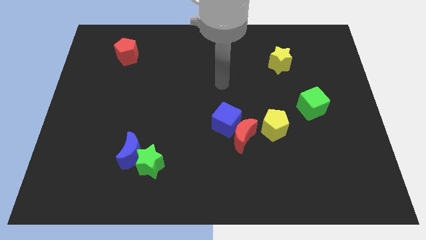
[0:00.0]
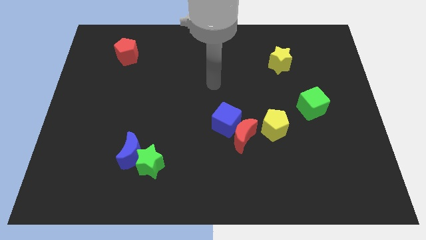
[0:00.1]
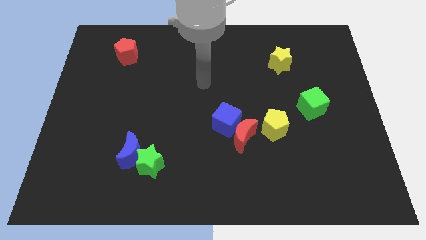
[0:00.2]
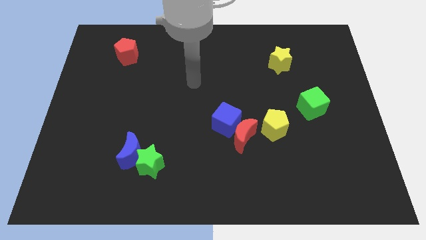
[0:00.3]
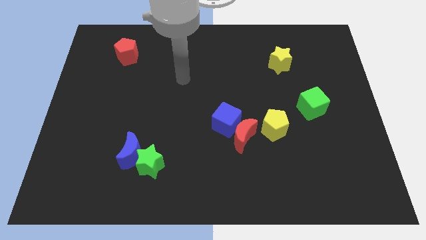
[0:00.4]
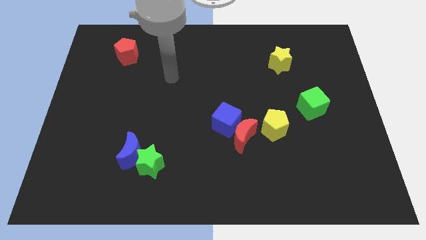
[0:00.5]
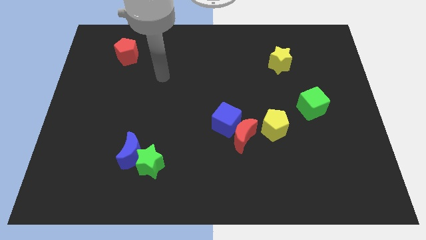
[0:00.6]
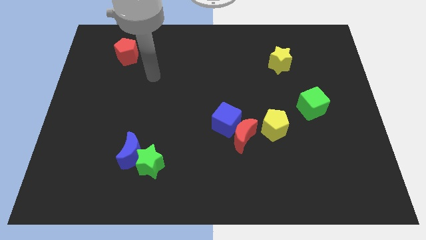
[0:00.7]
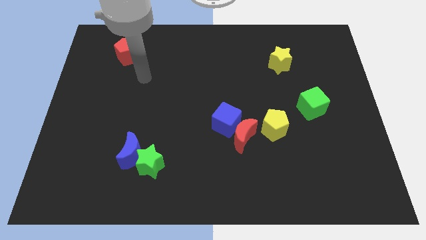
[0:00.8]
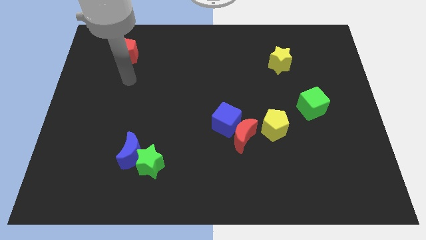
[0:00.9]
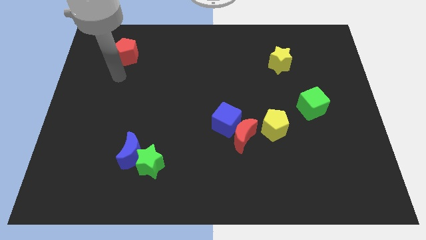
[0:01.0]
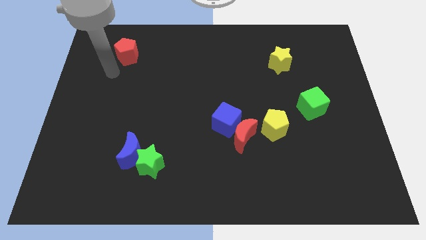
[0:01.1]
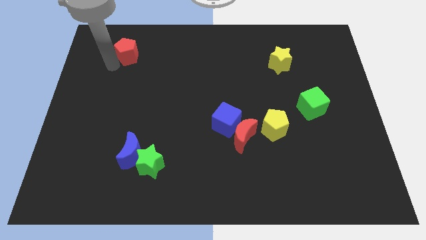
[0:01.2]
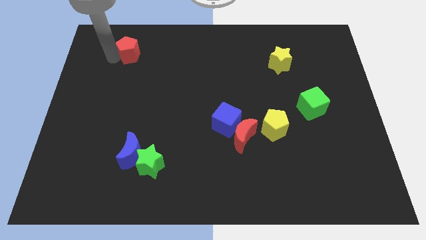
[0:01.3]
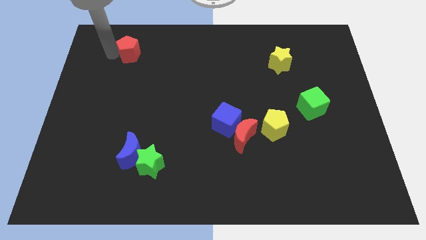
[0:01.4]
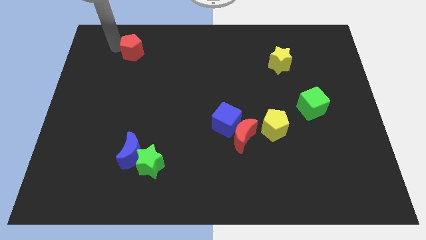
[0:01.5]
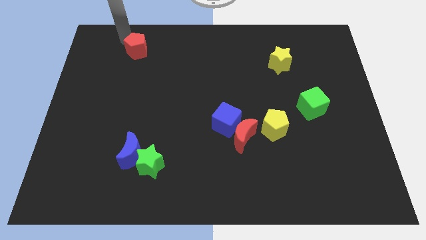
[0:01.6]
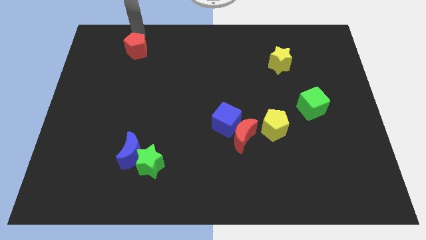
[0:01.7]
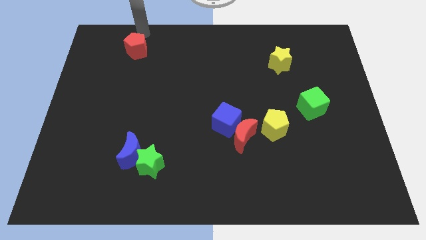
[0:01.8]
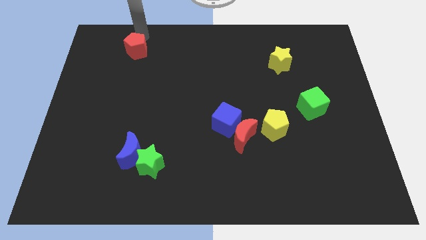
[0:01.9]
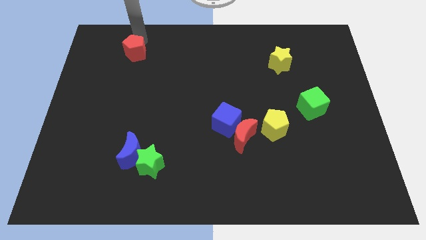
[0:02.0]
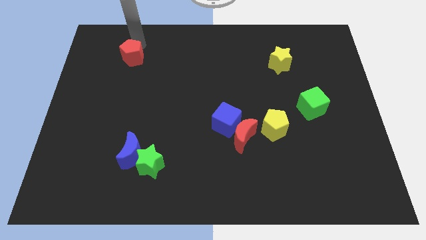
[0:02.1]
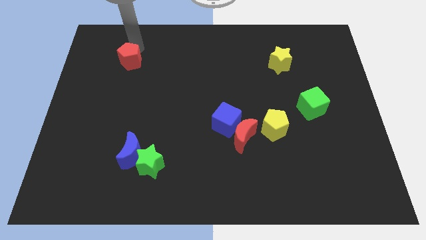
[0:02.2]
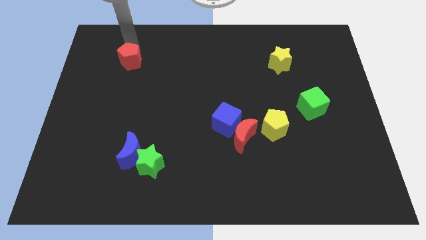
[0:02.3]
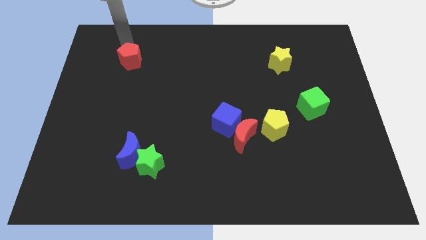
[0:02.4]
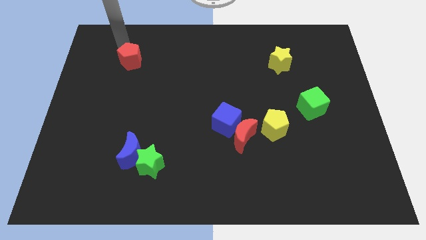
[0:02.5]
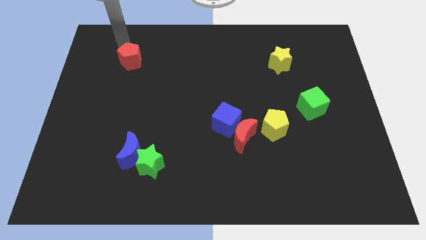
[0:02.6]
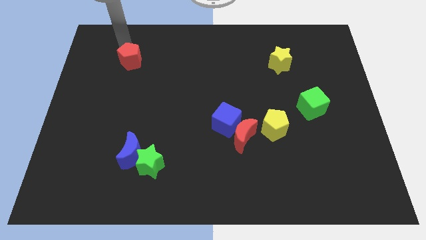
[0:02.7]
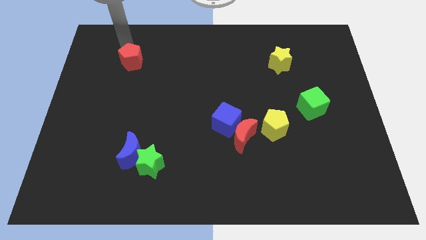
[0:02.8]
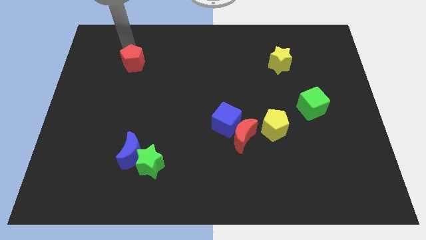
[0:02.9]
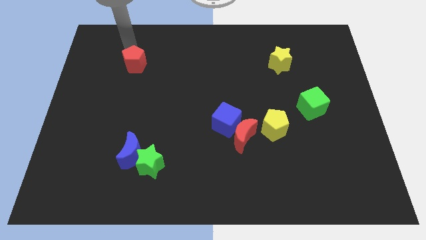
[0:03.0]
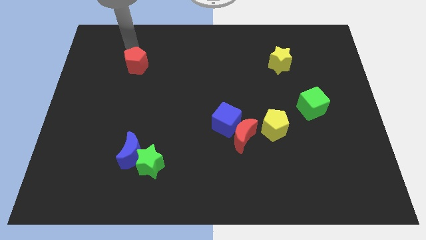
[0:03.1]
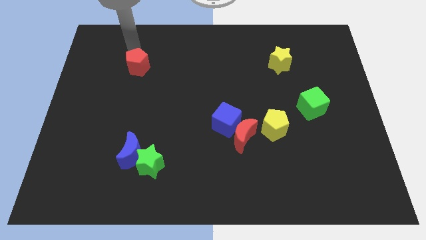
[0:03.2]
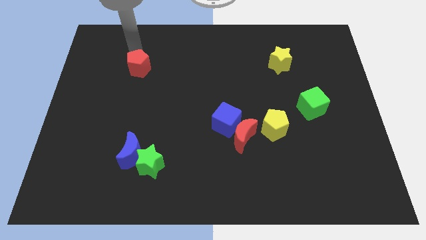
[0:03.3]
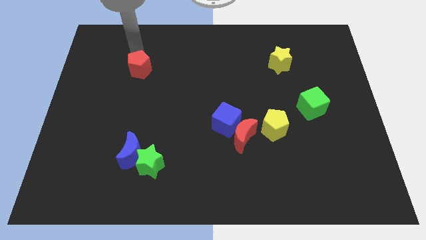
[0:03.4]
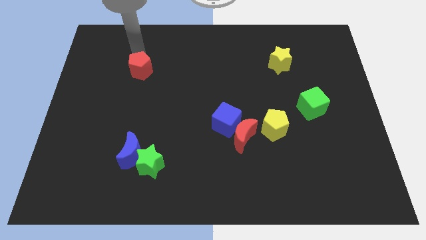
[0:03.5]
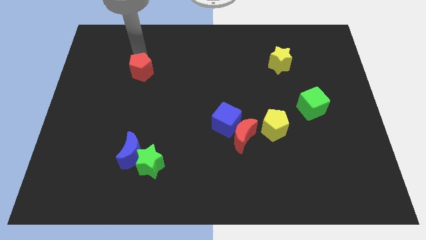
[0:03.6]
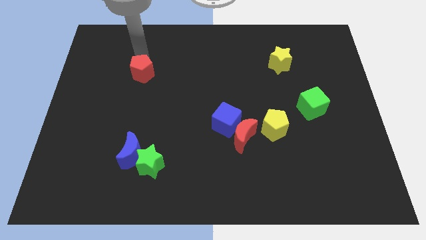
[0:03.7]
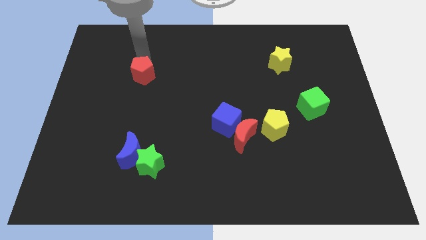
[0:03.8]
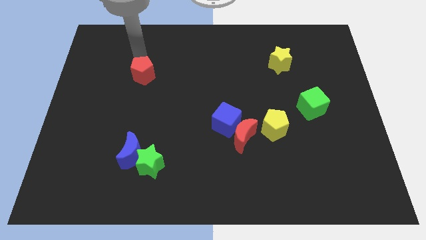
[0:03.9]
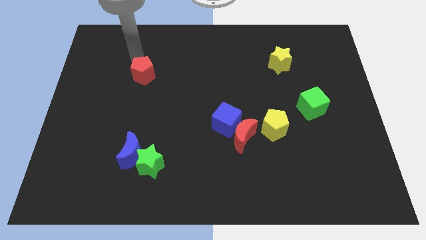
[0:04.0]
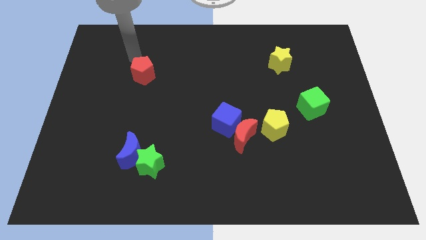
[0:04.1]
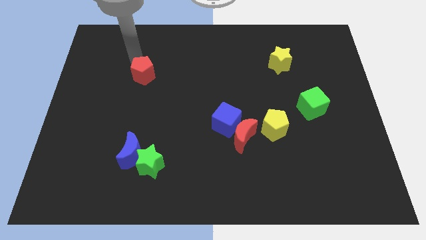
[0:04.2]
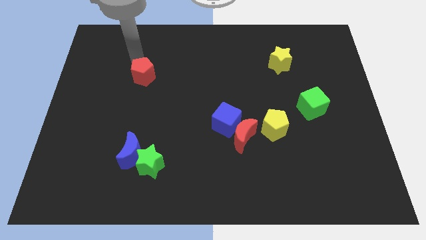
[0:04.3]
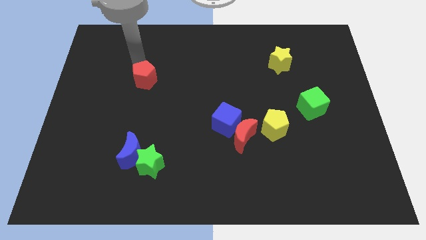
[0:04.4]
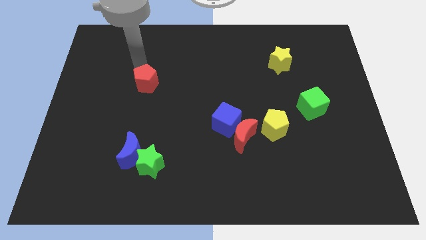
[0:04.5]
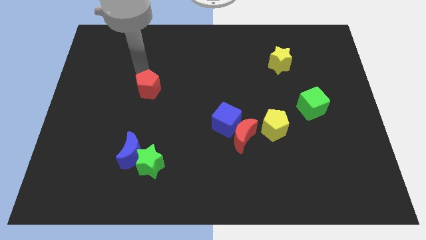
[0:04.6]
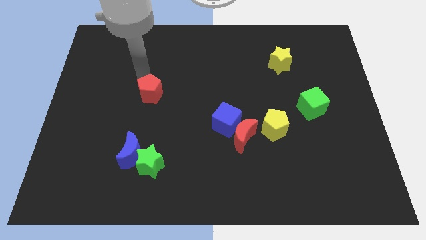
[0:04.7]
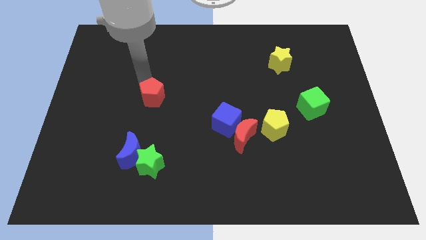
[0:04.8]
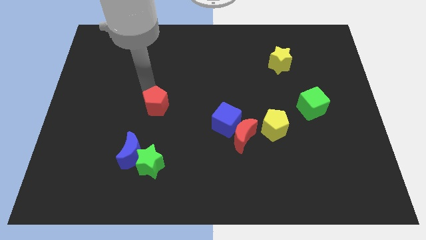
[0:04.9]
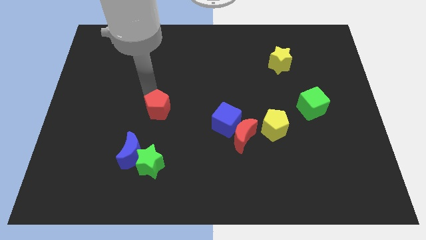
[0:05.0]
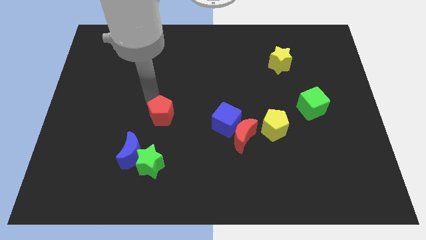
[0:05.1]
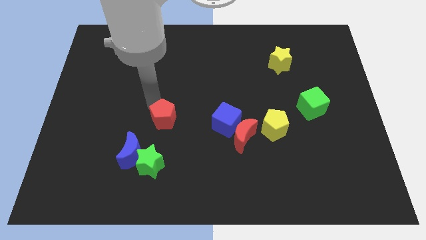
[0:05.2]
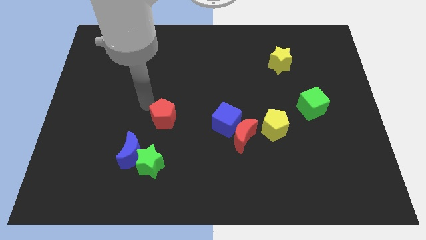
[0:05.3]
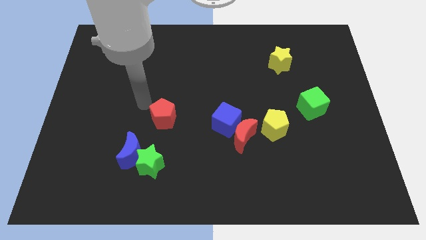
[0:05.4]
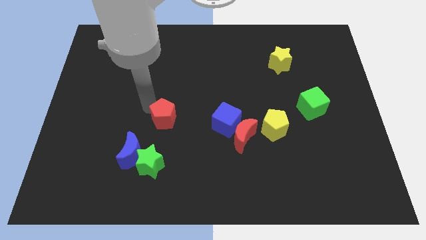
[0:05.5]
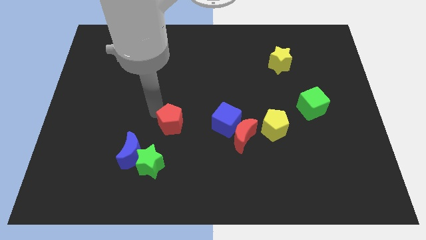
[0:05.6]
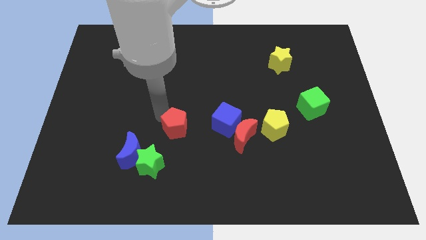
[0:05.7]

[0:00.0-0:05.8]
move the red pentagon left of the red moon
